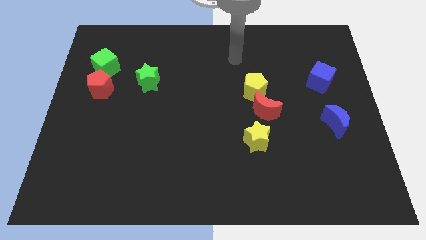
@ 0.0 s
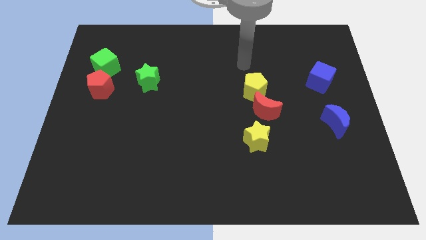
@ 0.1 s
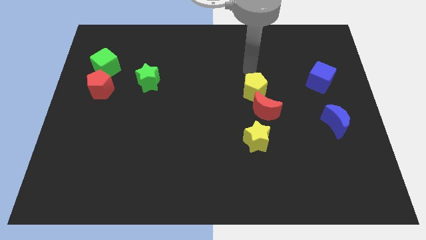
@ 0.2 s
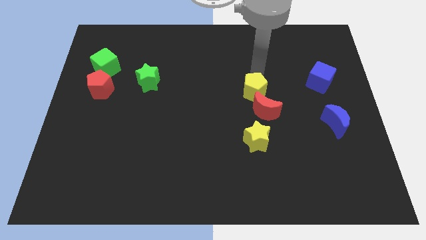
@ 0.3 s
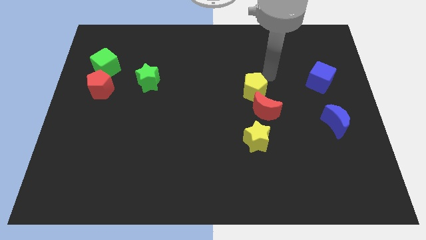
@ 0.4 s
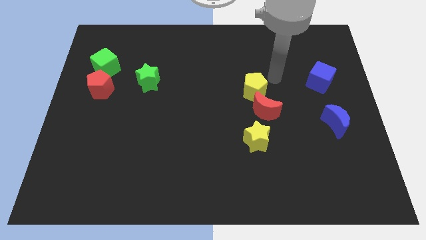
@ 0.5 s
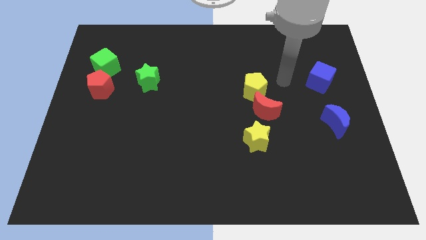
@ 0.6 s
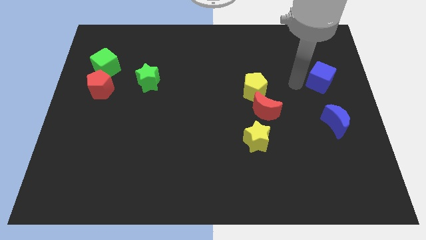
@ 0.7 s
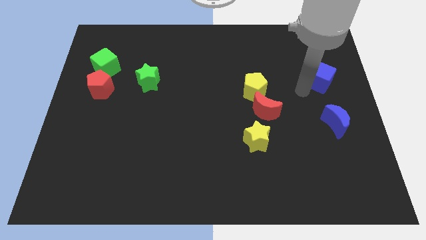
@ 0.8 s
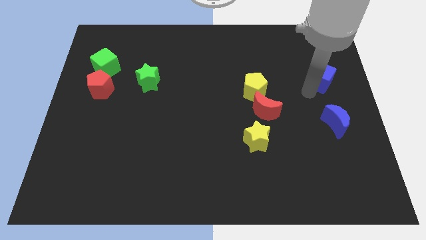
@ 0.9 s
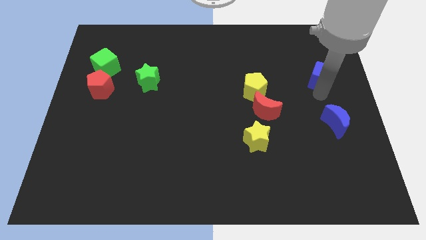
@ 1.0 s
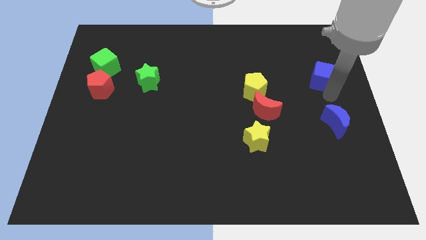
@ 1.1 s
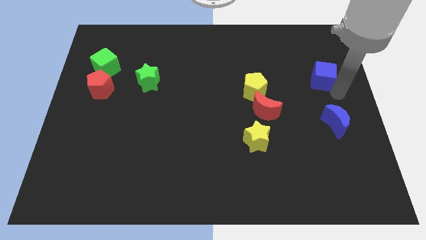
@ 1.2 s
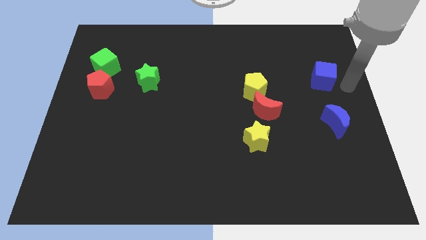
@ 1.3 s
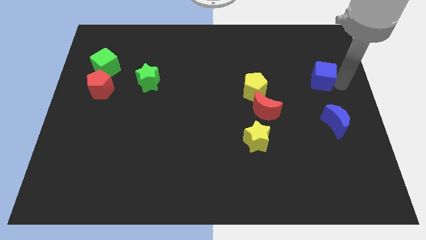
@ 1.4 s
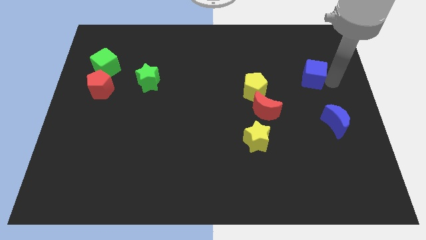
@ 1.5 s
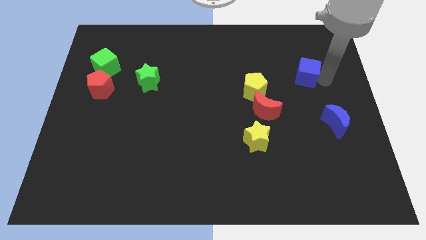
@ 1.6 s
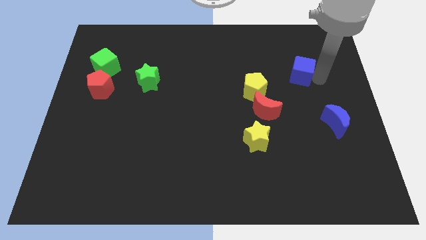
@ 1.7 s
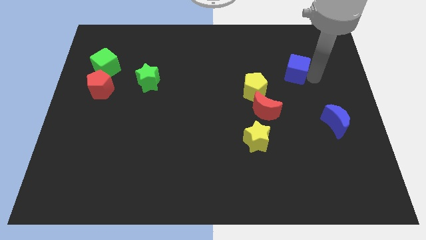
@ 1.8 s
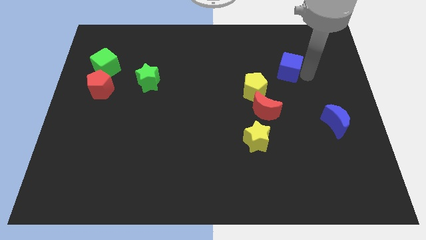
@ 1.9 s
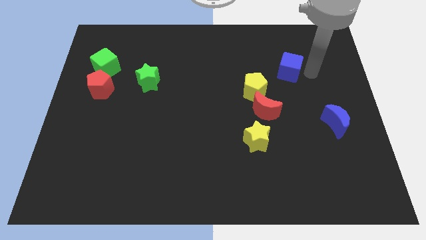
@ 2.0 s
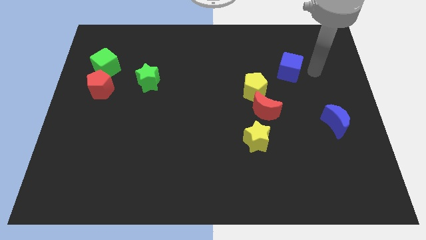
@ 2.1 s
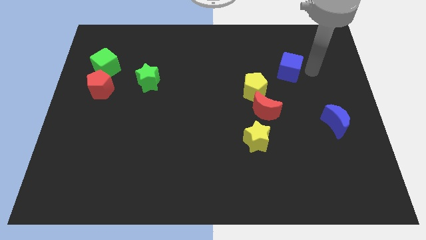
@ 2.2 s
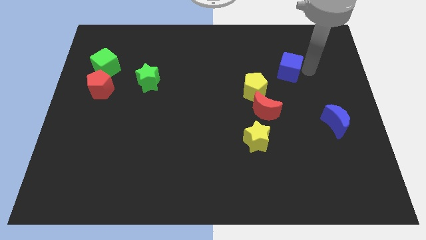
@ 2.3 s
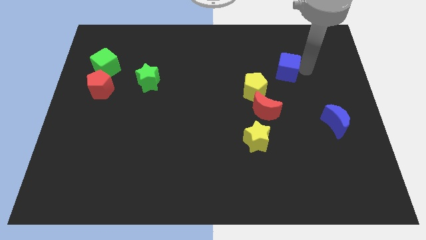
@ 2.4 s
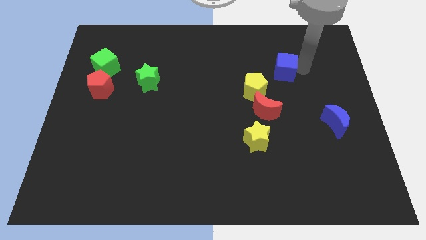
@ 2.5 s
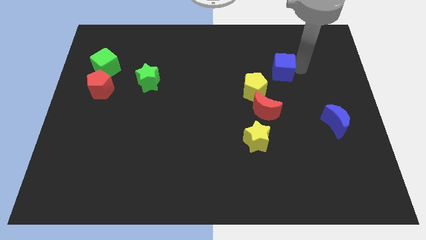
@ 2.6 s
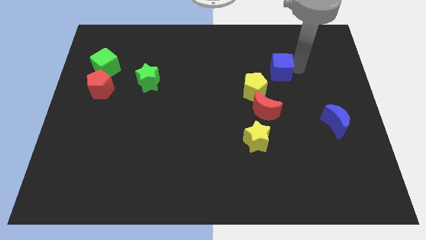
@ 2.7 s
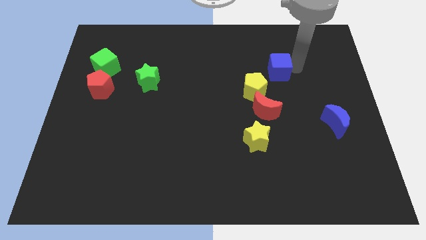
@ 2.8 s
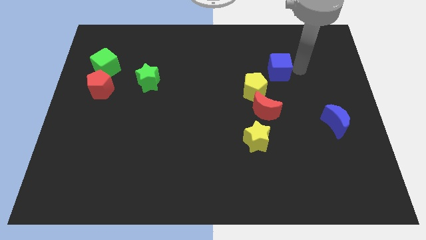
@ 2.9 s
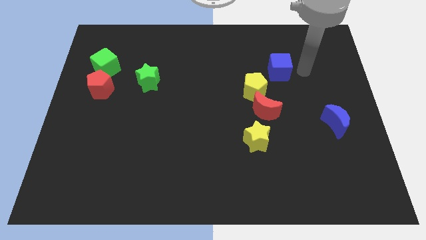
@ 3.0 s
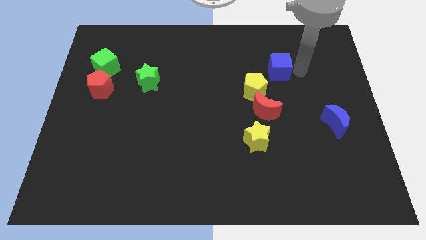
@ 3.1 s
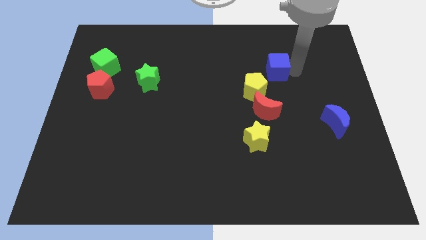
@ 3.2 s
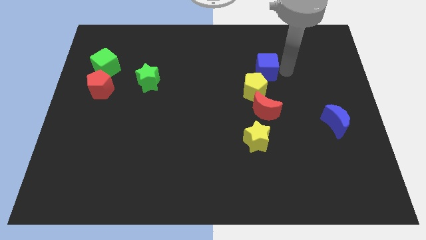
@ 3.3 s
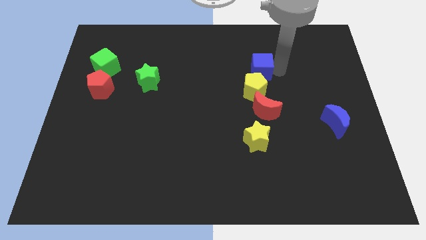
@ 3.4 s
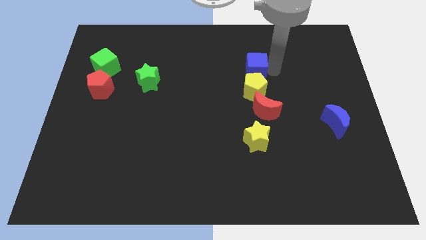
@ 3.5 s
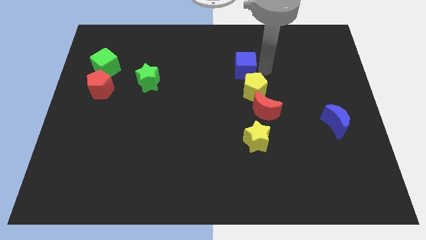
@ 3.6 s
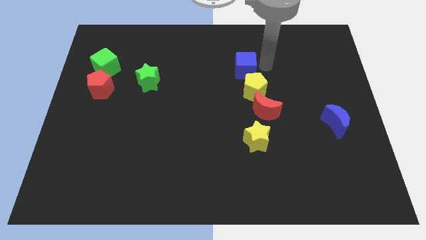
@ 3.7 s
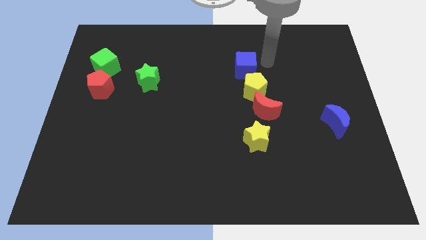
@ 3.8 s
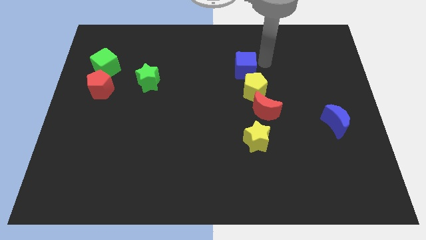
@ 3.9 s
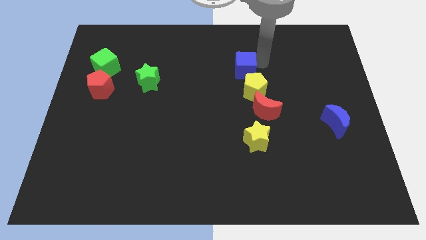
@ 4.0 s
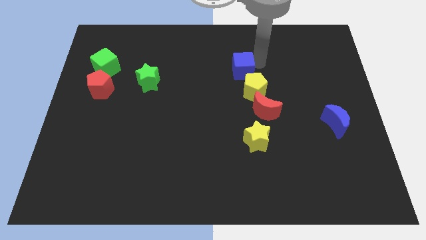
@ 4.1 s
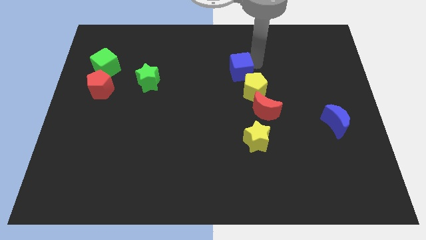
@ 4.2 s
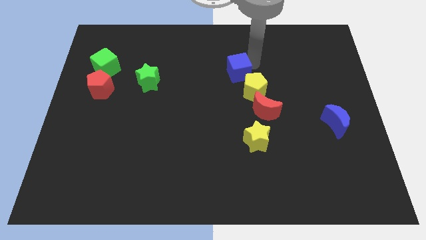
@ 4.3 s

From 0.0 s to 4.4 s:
push the blue cube left

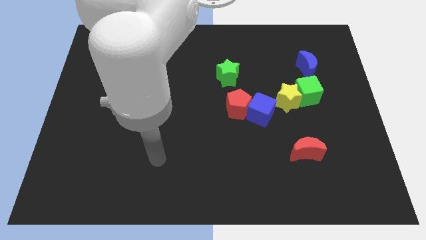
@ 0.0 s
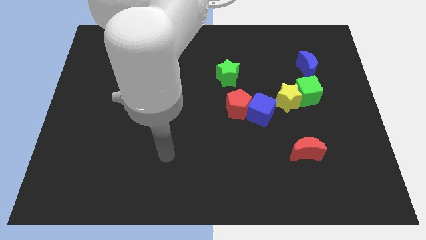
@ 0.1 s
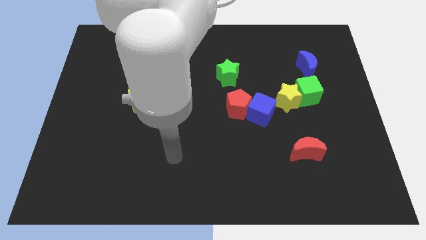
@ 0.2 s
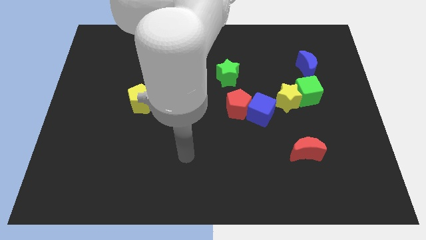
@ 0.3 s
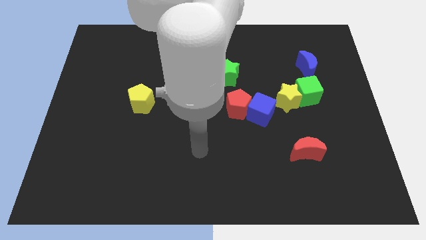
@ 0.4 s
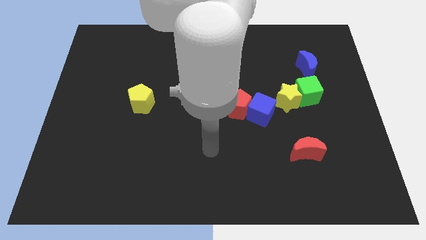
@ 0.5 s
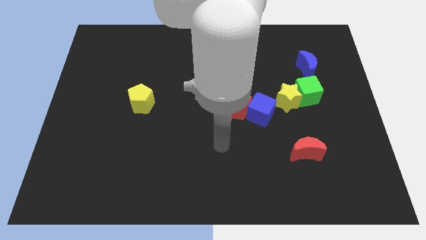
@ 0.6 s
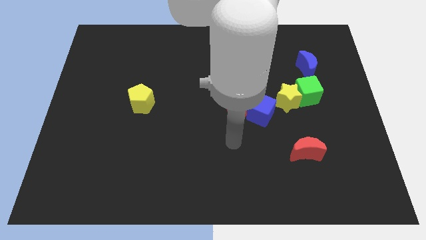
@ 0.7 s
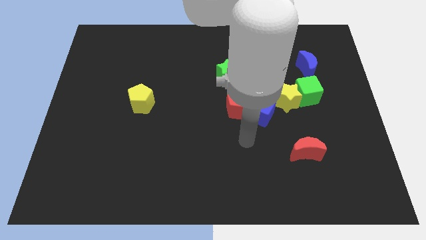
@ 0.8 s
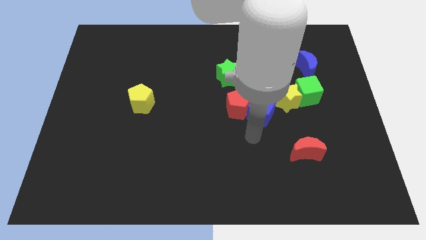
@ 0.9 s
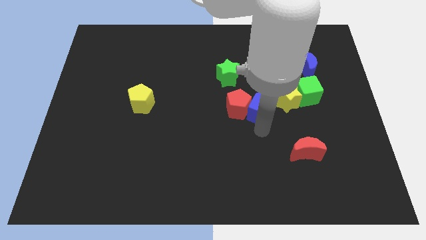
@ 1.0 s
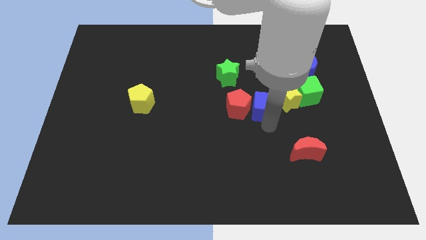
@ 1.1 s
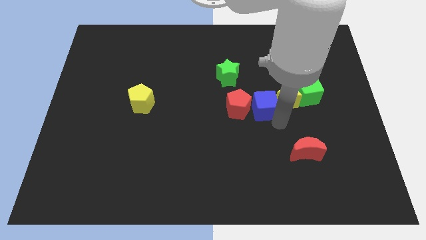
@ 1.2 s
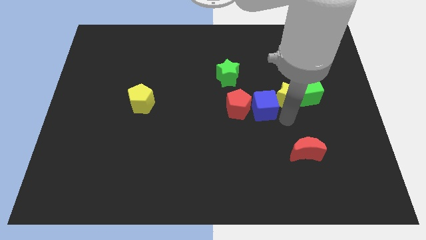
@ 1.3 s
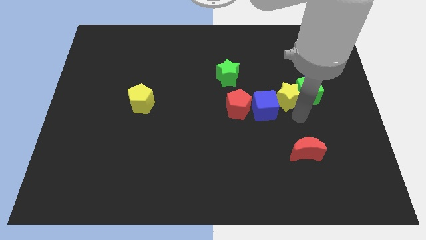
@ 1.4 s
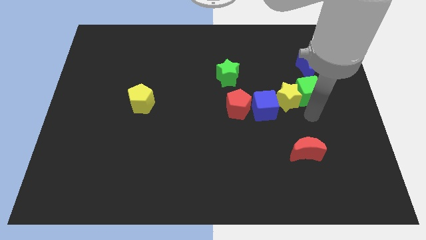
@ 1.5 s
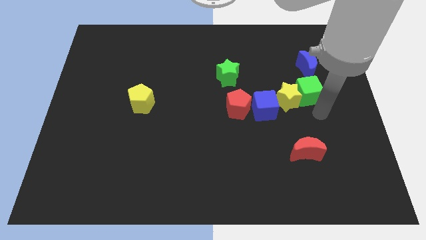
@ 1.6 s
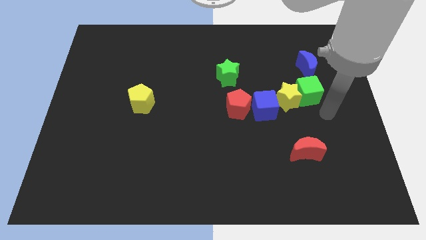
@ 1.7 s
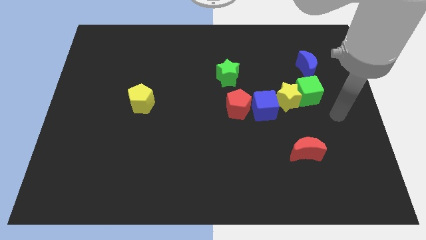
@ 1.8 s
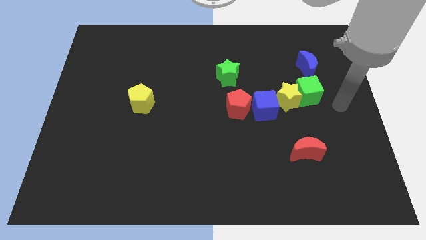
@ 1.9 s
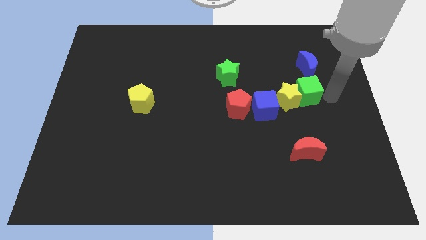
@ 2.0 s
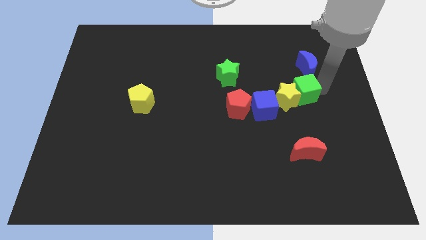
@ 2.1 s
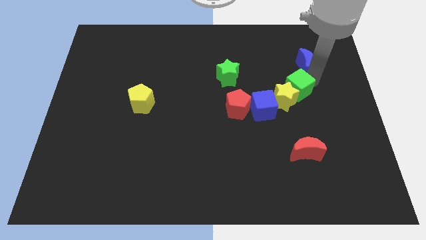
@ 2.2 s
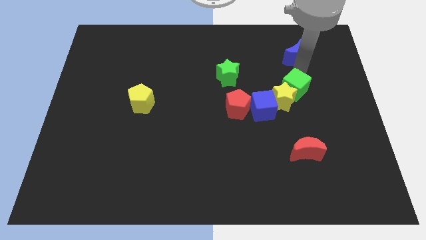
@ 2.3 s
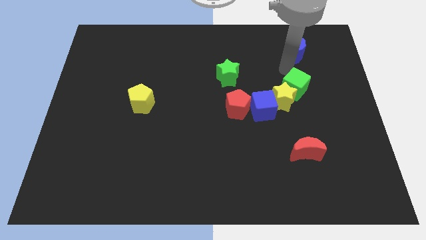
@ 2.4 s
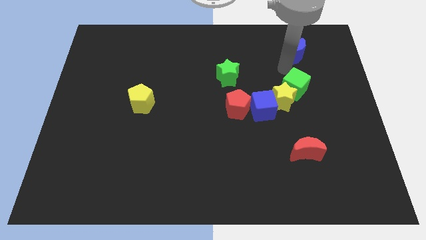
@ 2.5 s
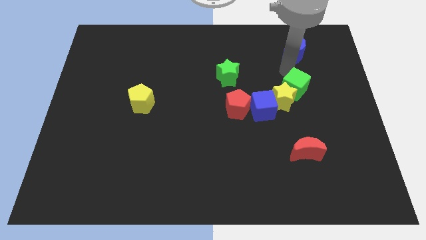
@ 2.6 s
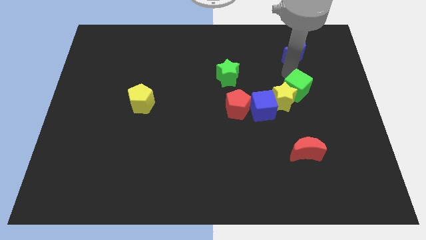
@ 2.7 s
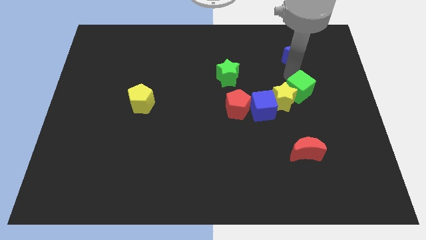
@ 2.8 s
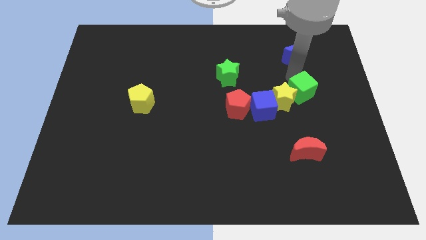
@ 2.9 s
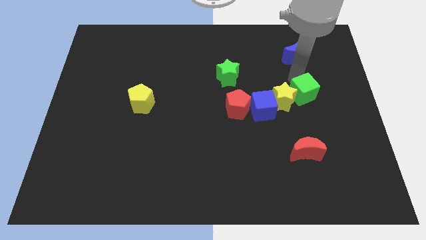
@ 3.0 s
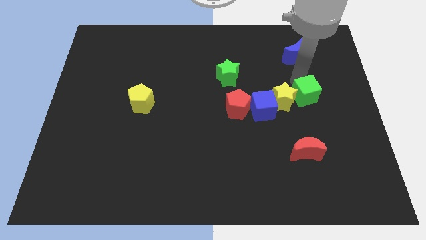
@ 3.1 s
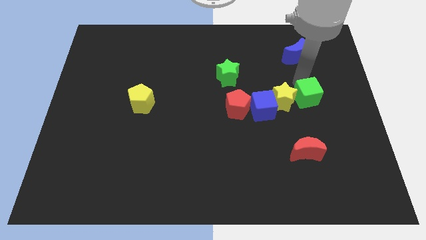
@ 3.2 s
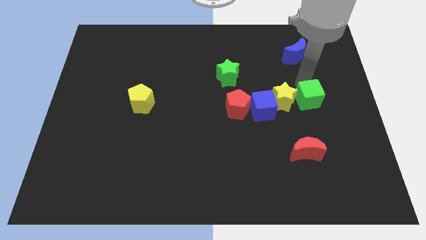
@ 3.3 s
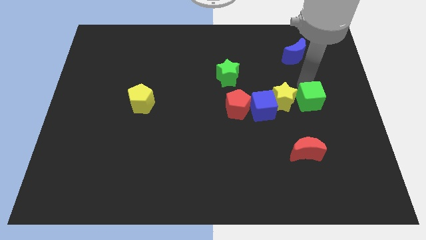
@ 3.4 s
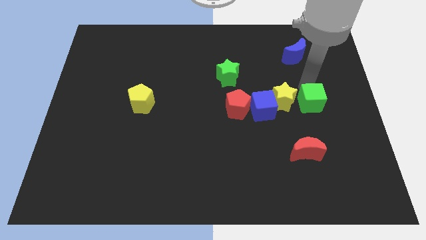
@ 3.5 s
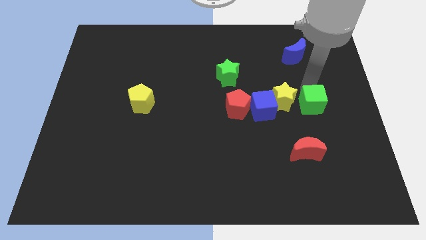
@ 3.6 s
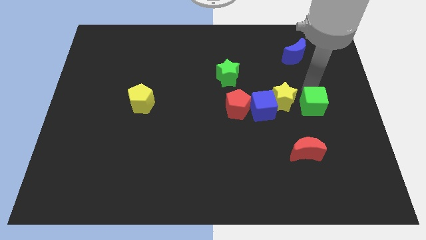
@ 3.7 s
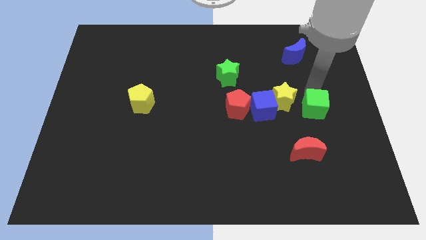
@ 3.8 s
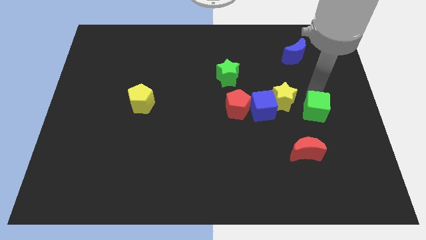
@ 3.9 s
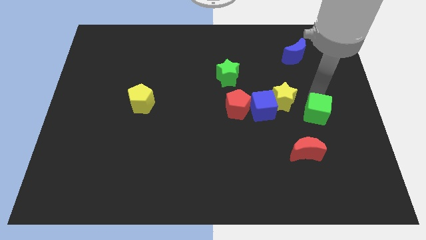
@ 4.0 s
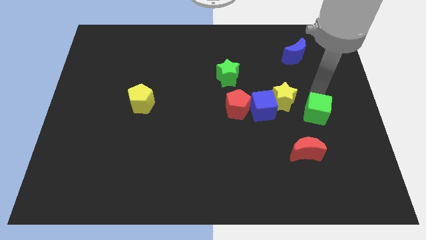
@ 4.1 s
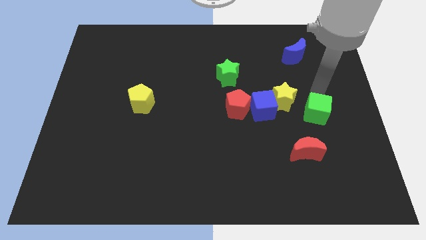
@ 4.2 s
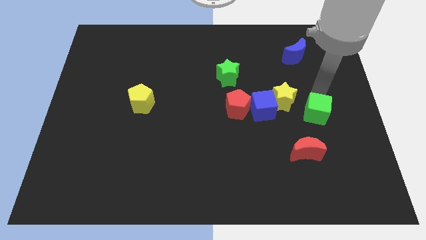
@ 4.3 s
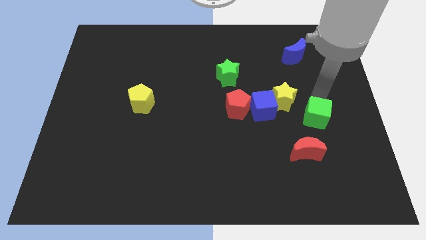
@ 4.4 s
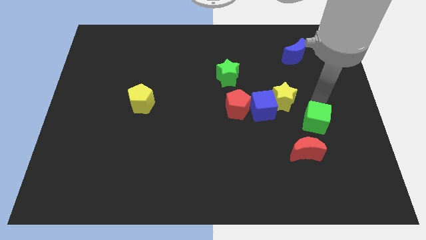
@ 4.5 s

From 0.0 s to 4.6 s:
slightly slide the green cube downwards
